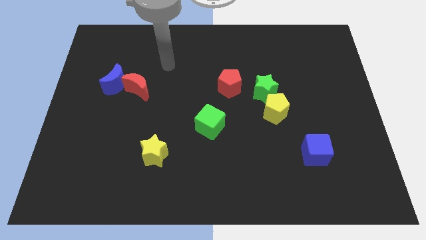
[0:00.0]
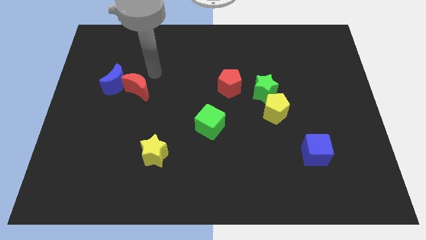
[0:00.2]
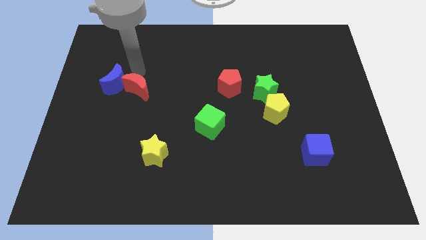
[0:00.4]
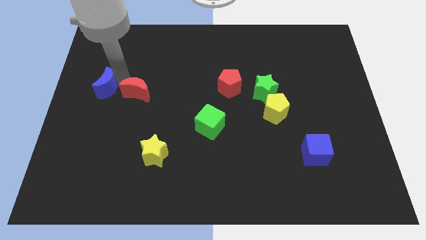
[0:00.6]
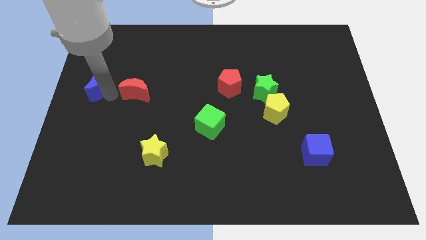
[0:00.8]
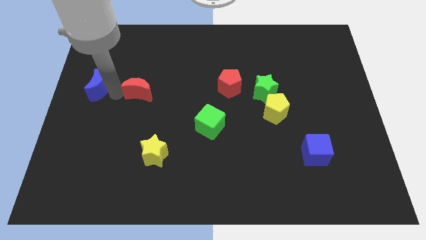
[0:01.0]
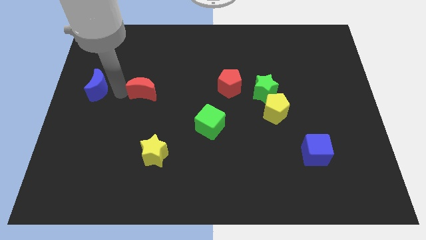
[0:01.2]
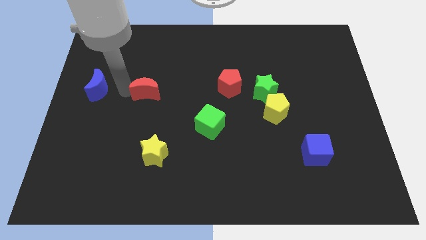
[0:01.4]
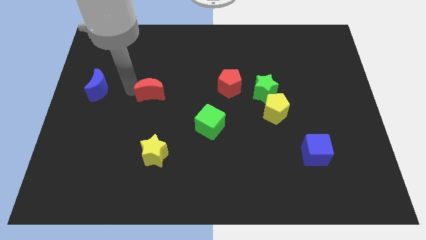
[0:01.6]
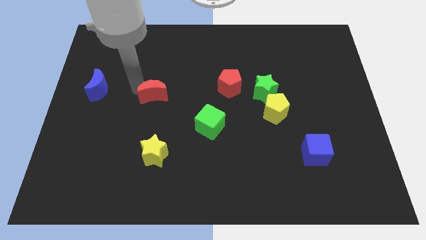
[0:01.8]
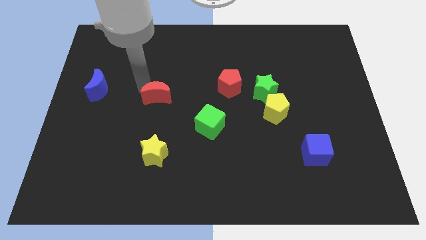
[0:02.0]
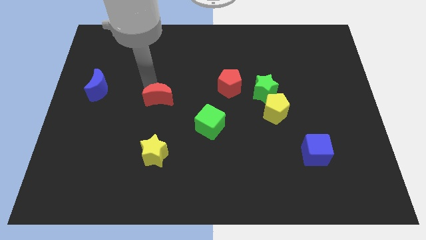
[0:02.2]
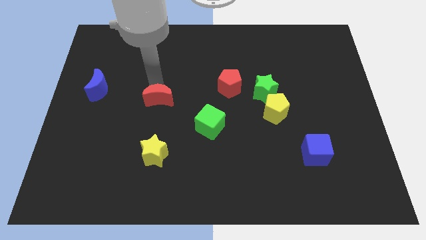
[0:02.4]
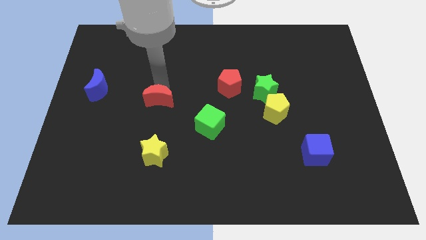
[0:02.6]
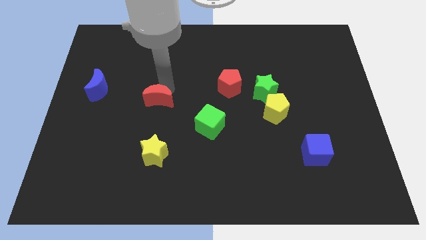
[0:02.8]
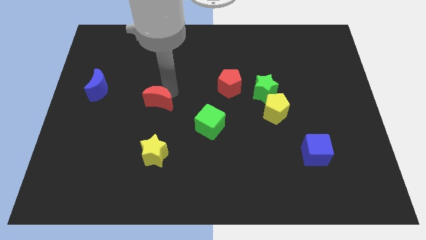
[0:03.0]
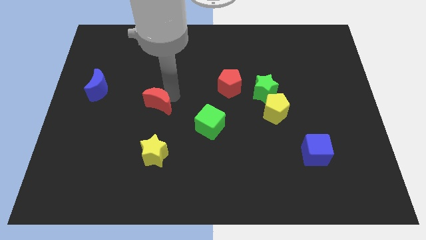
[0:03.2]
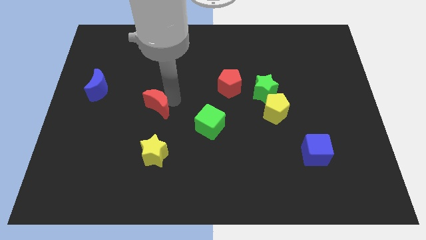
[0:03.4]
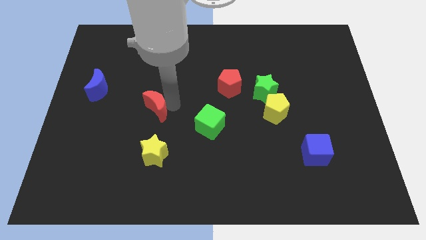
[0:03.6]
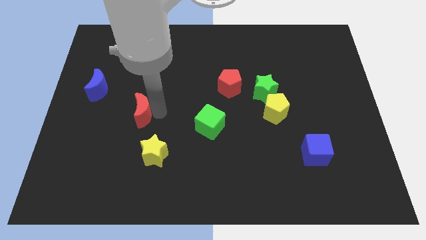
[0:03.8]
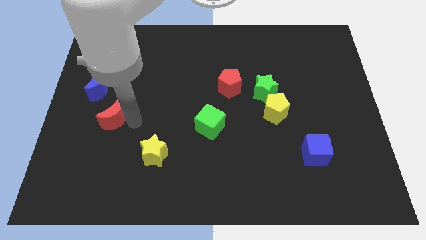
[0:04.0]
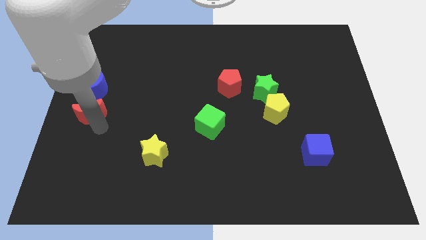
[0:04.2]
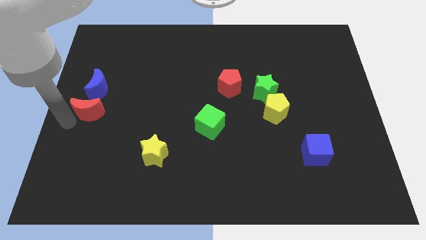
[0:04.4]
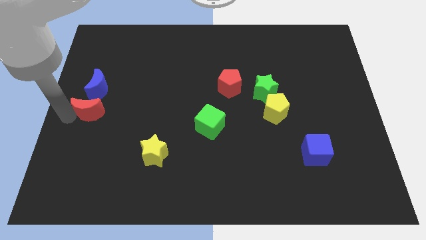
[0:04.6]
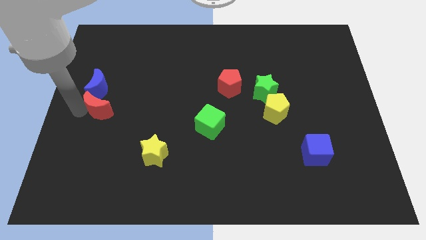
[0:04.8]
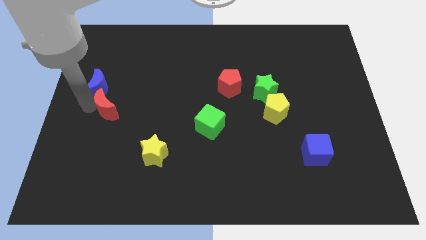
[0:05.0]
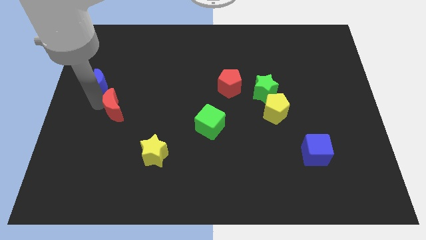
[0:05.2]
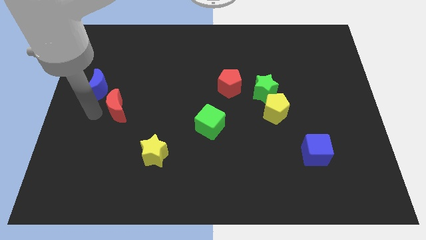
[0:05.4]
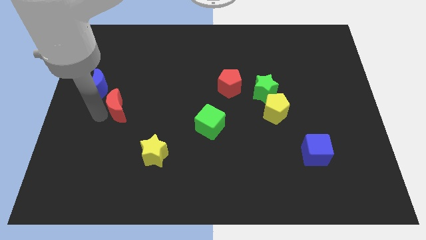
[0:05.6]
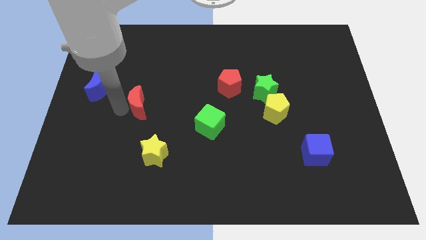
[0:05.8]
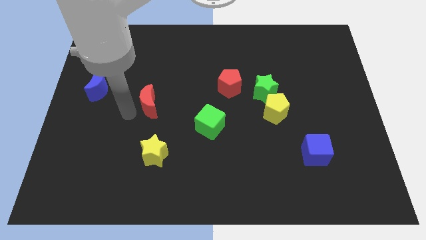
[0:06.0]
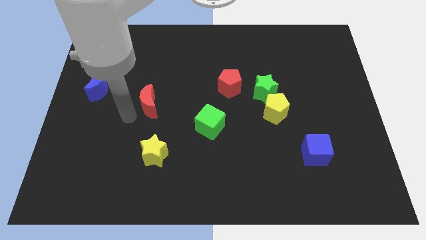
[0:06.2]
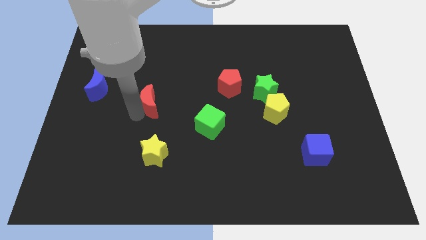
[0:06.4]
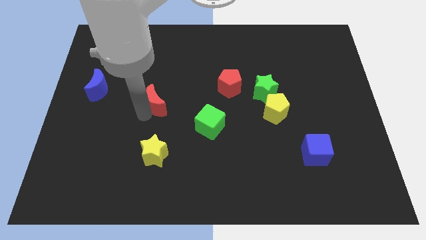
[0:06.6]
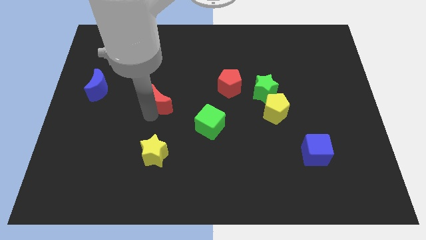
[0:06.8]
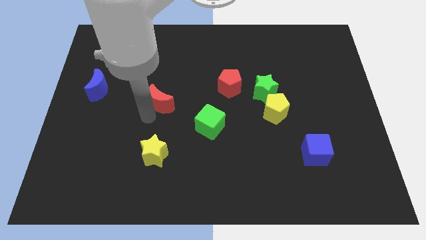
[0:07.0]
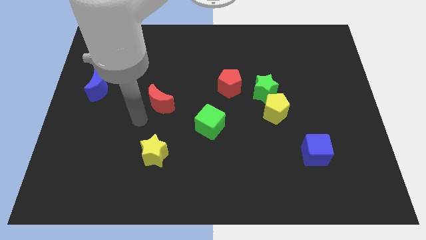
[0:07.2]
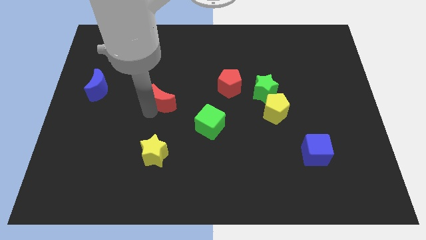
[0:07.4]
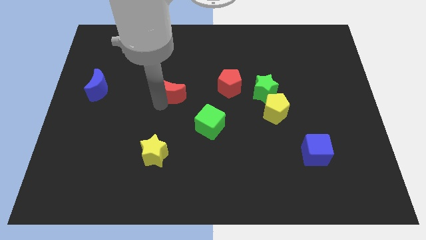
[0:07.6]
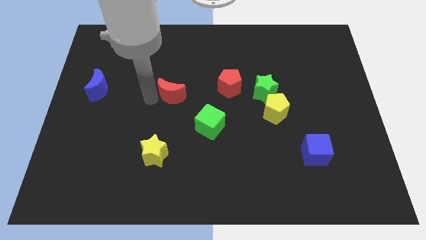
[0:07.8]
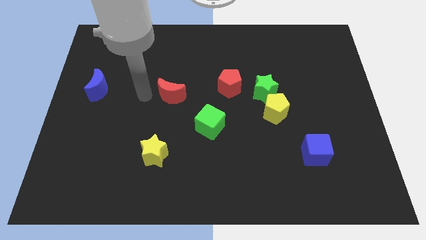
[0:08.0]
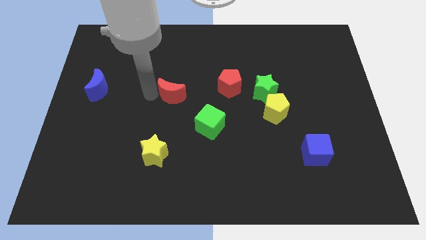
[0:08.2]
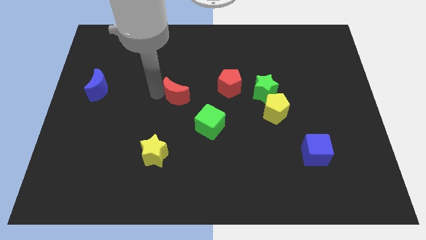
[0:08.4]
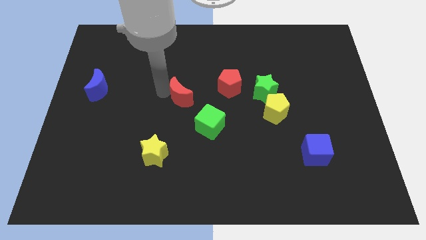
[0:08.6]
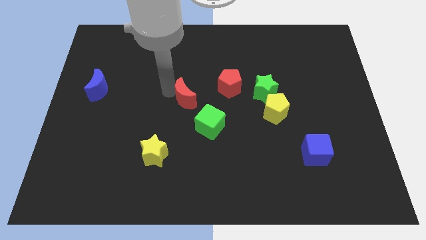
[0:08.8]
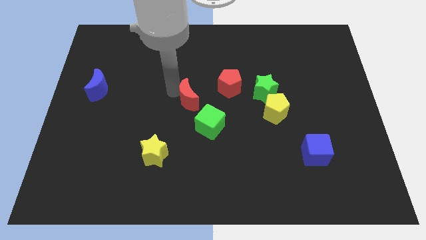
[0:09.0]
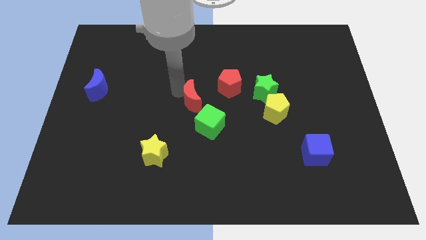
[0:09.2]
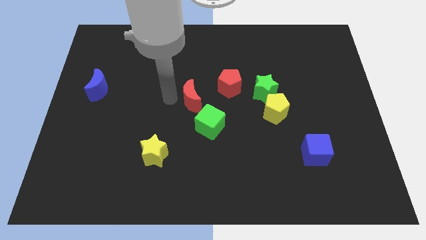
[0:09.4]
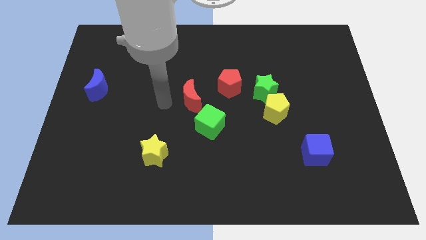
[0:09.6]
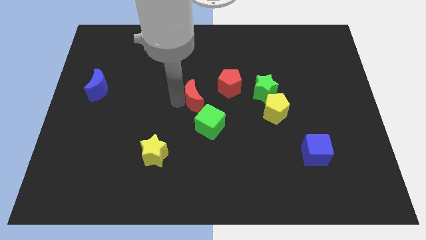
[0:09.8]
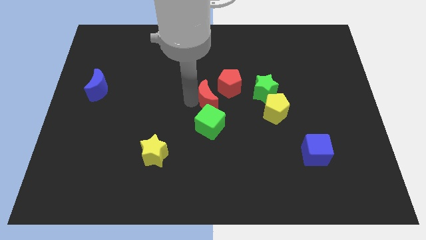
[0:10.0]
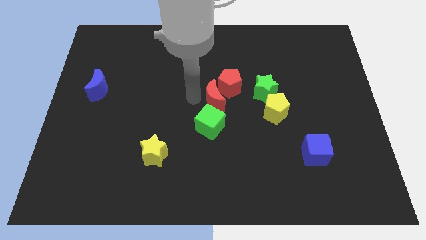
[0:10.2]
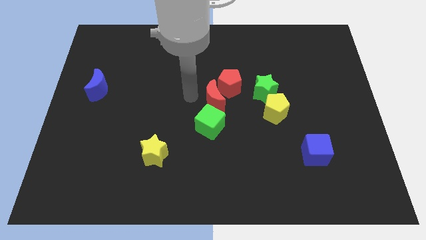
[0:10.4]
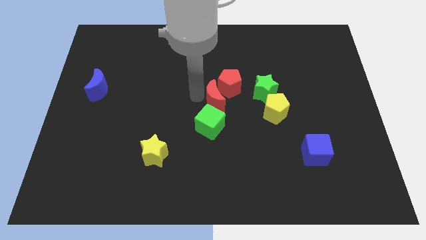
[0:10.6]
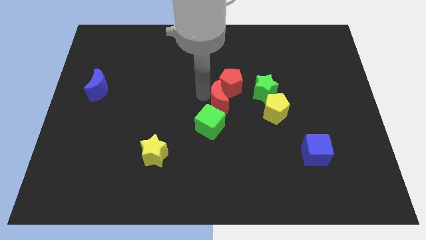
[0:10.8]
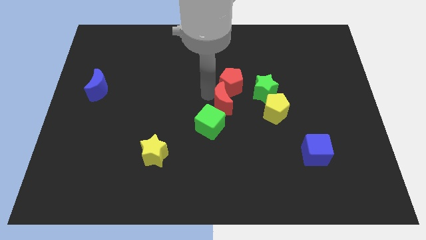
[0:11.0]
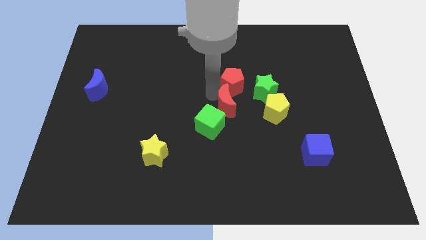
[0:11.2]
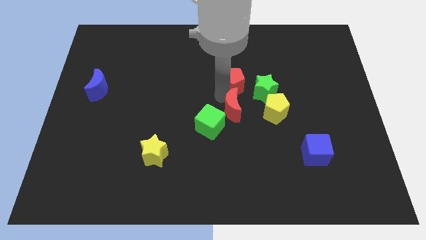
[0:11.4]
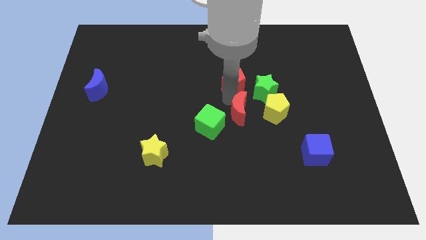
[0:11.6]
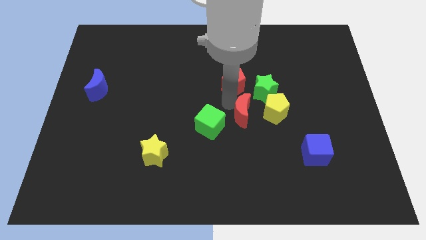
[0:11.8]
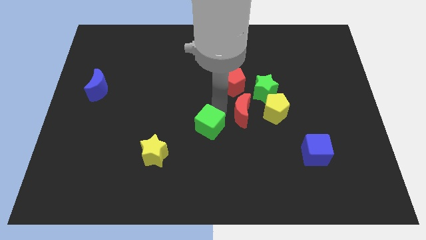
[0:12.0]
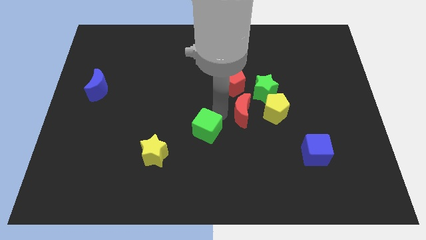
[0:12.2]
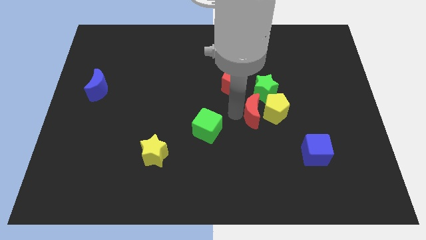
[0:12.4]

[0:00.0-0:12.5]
move the red moon towards the yellow pentagon

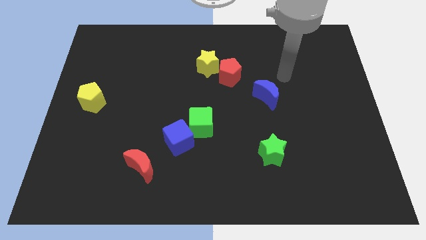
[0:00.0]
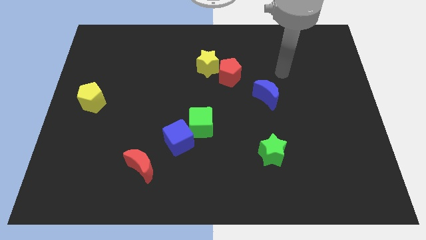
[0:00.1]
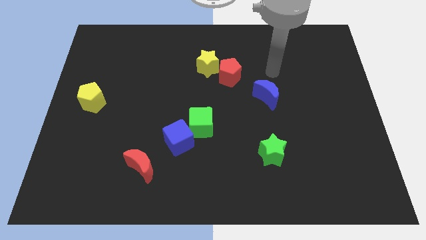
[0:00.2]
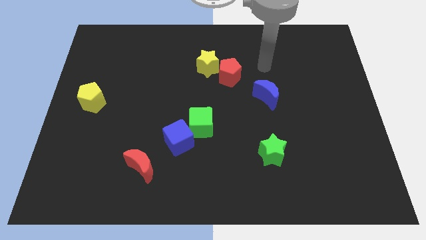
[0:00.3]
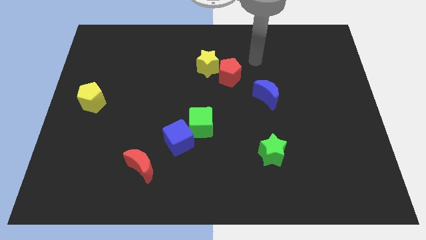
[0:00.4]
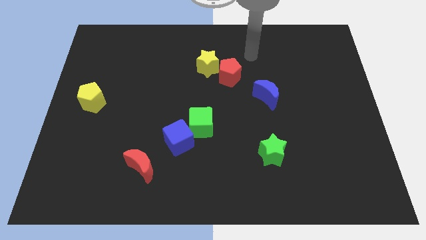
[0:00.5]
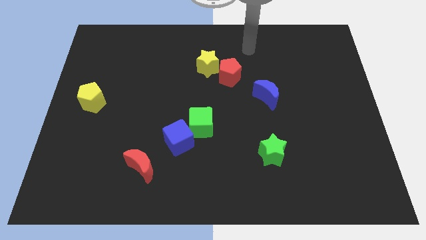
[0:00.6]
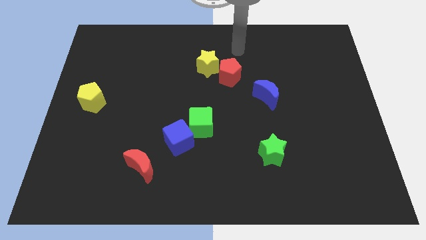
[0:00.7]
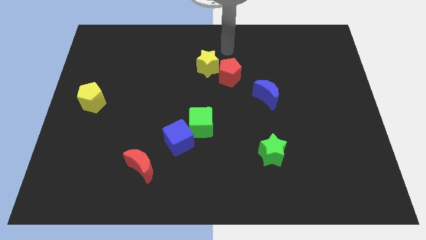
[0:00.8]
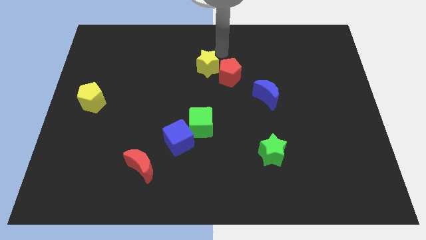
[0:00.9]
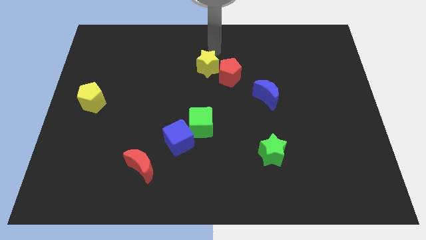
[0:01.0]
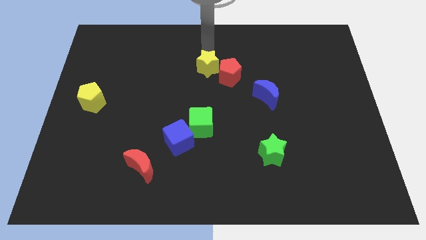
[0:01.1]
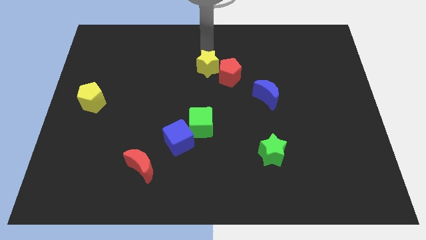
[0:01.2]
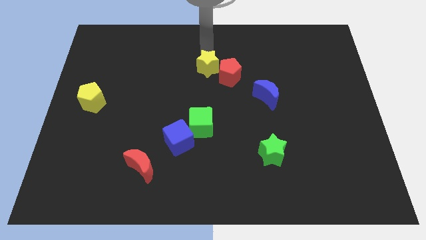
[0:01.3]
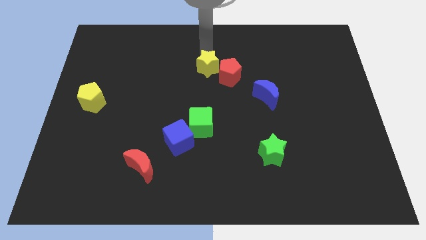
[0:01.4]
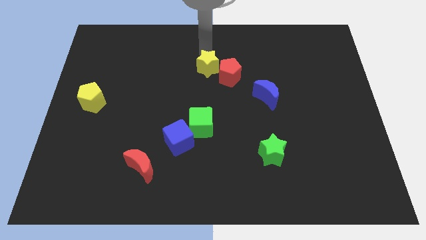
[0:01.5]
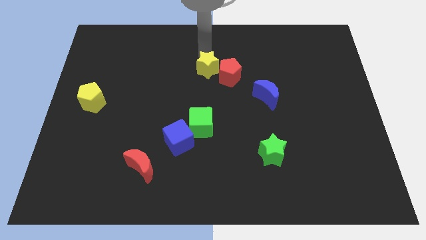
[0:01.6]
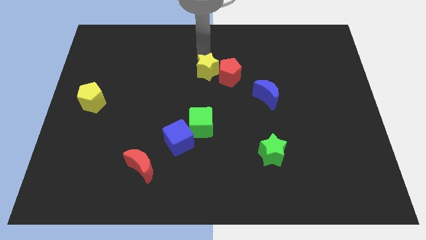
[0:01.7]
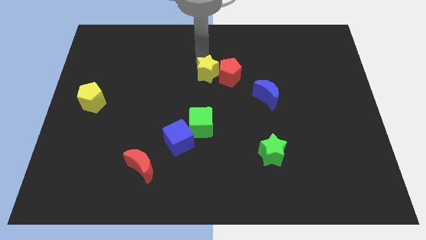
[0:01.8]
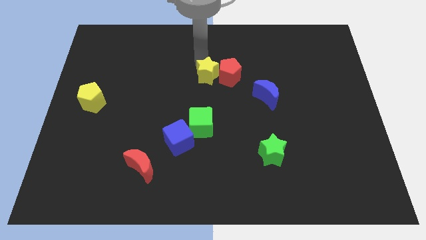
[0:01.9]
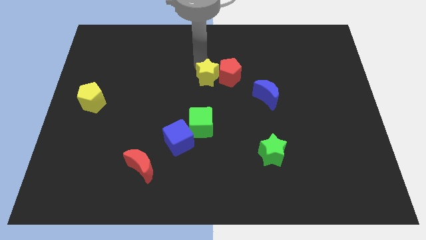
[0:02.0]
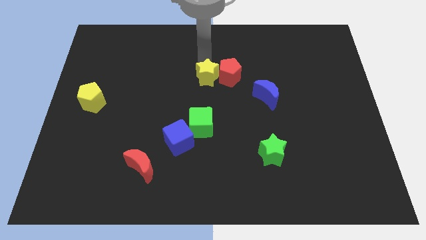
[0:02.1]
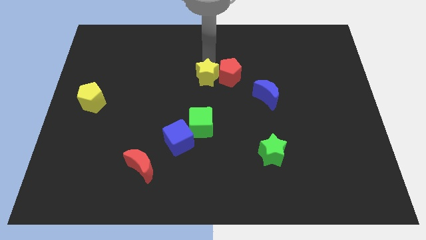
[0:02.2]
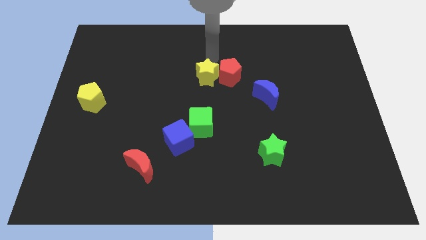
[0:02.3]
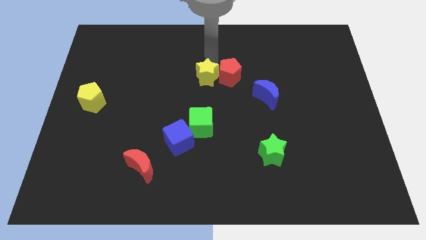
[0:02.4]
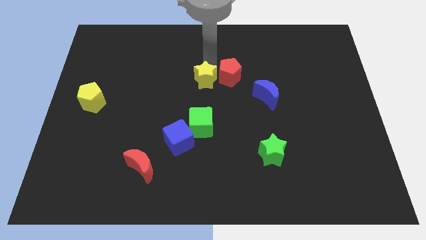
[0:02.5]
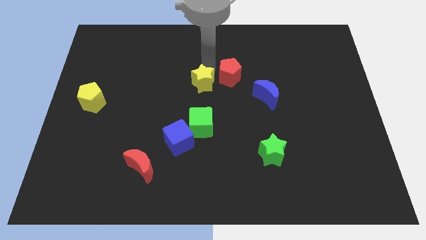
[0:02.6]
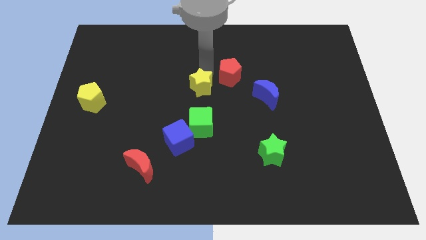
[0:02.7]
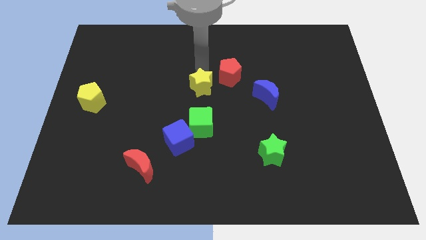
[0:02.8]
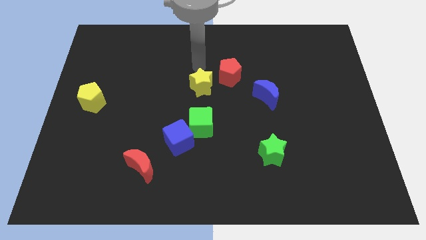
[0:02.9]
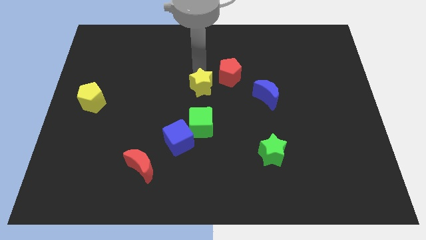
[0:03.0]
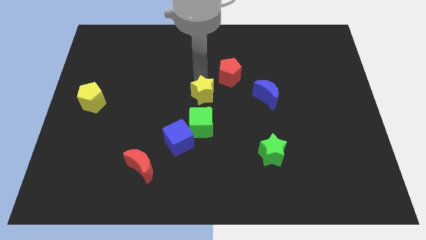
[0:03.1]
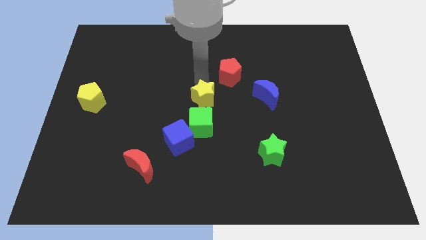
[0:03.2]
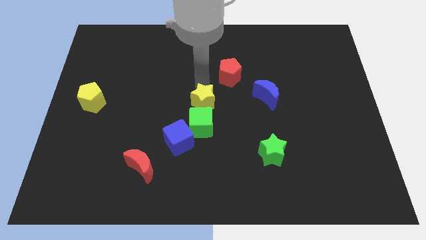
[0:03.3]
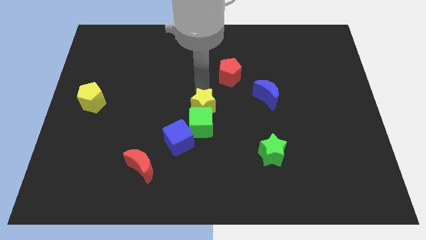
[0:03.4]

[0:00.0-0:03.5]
move the yellow star towards the green cube
